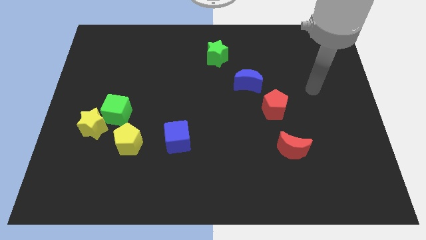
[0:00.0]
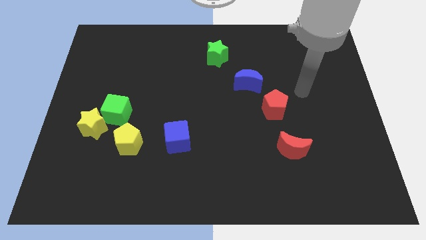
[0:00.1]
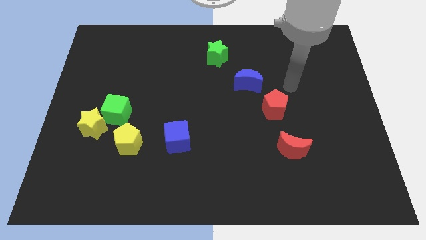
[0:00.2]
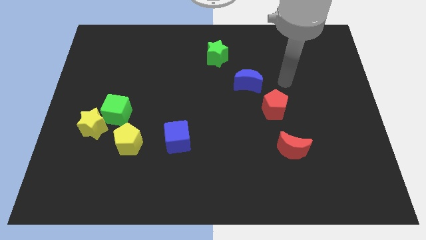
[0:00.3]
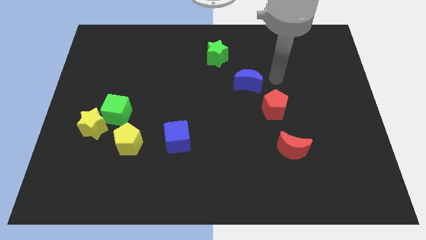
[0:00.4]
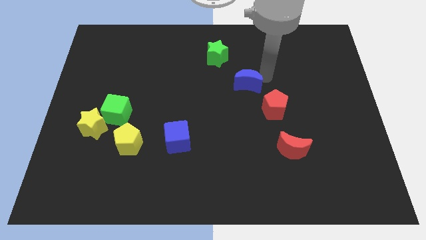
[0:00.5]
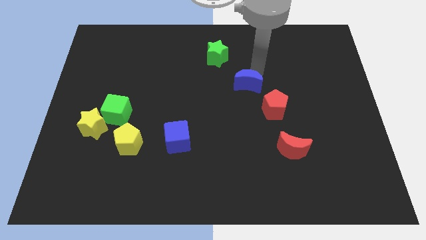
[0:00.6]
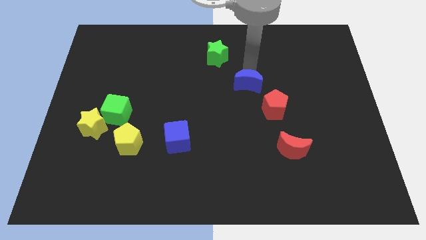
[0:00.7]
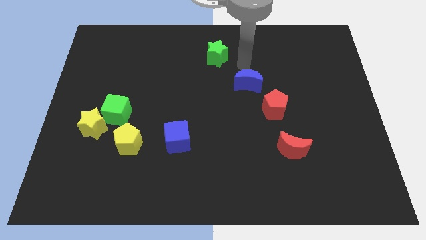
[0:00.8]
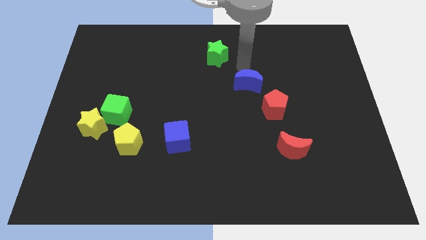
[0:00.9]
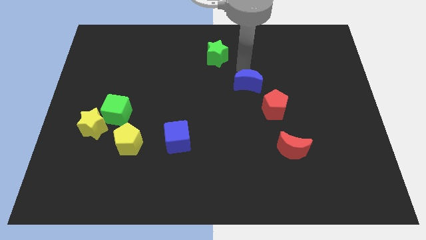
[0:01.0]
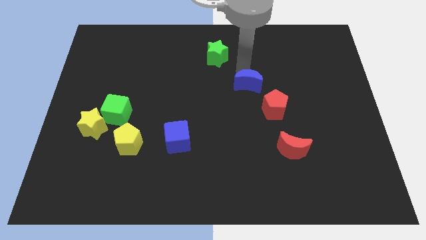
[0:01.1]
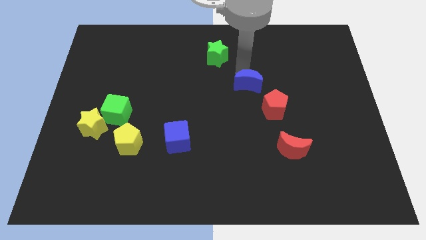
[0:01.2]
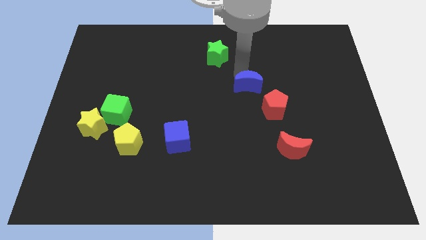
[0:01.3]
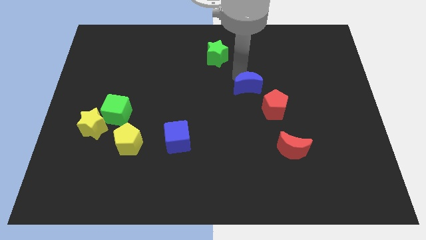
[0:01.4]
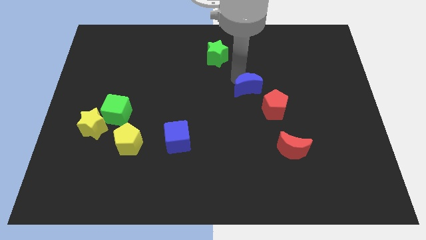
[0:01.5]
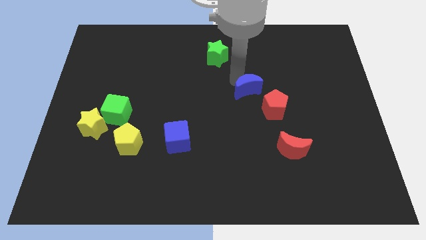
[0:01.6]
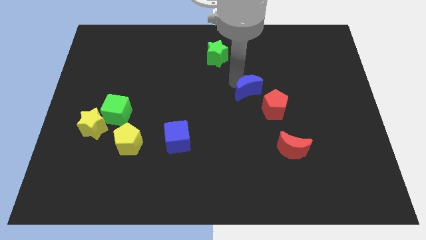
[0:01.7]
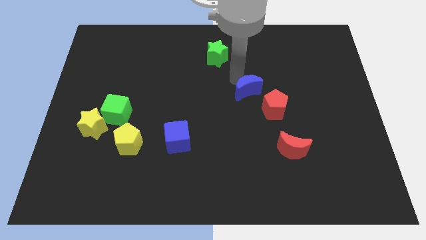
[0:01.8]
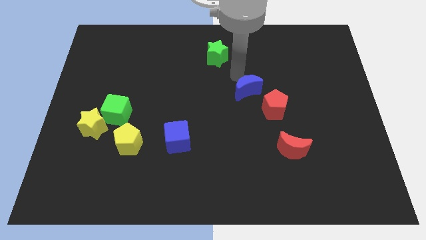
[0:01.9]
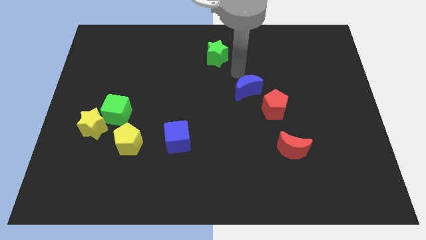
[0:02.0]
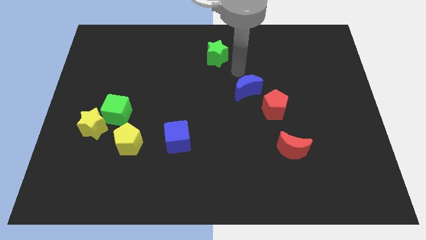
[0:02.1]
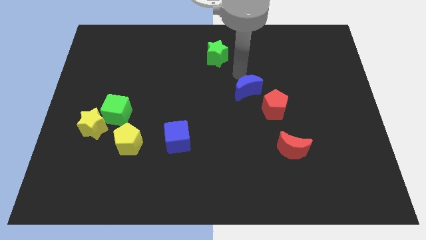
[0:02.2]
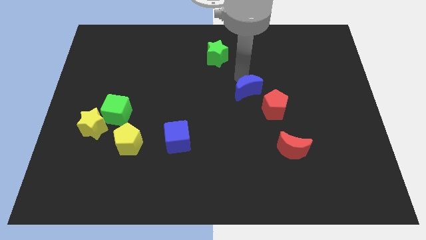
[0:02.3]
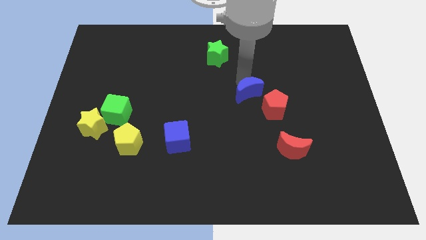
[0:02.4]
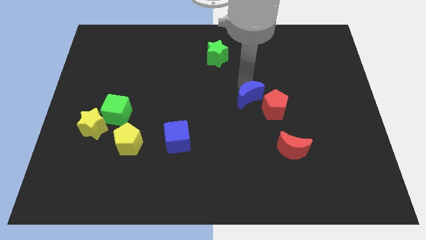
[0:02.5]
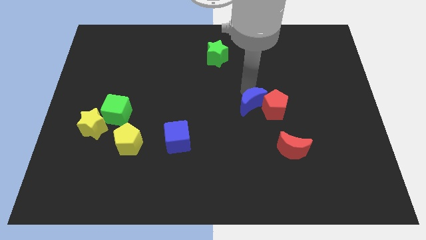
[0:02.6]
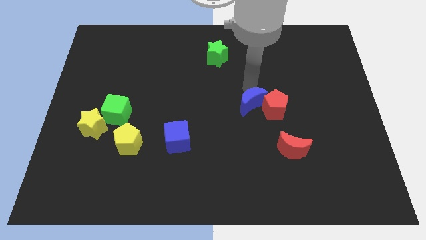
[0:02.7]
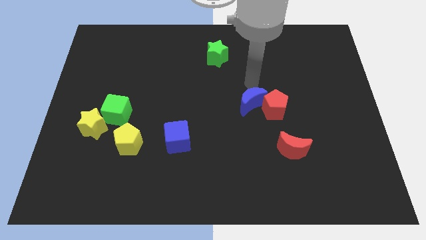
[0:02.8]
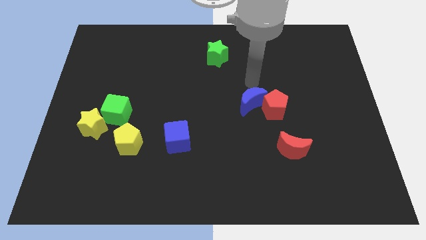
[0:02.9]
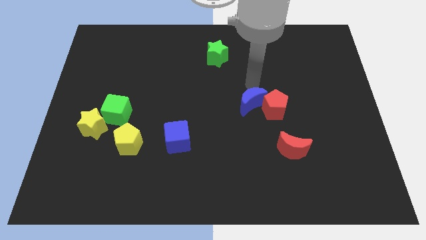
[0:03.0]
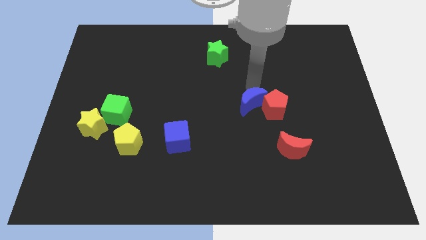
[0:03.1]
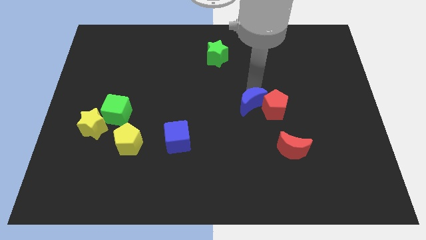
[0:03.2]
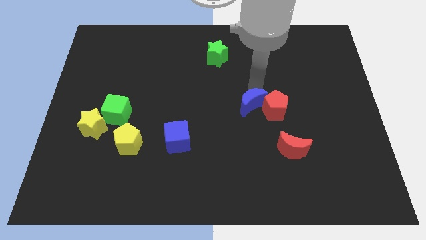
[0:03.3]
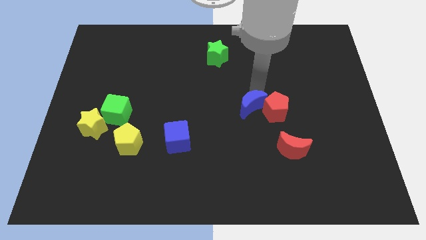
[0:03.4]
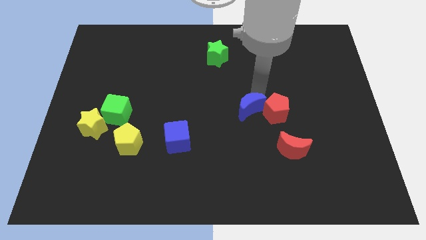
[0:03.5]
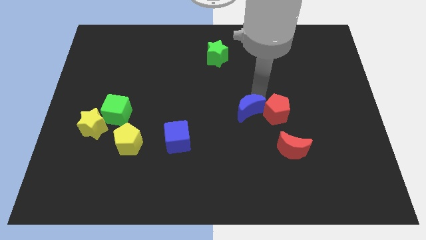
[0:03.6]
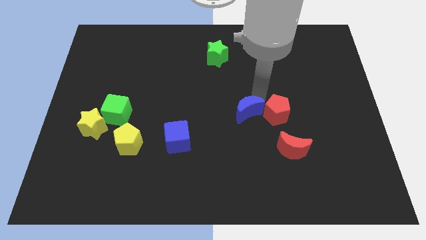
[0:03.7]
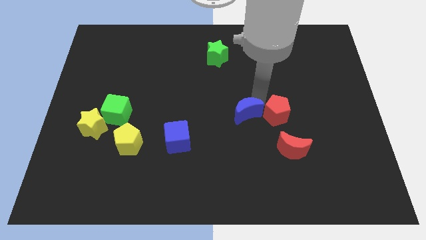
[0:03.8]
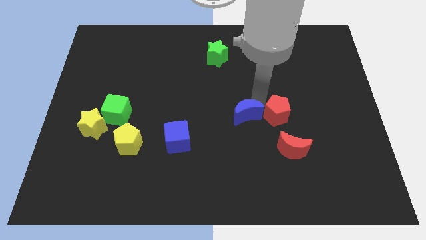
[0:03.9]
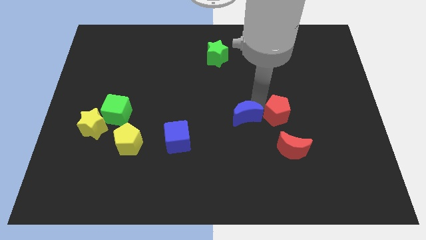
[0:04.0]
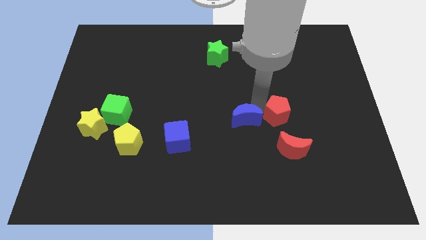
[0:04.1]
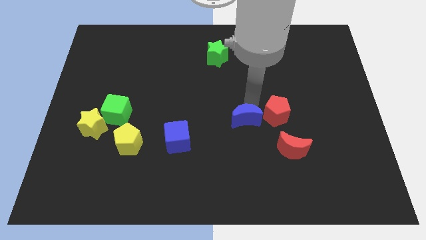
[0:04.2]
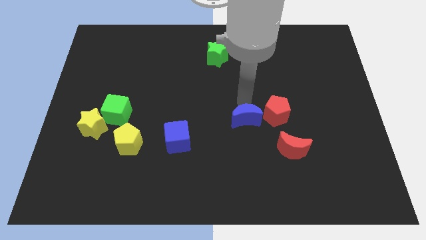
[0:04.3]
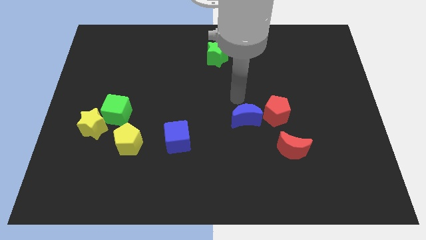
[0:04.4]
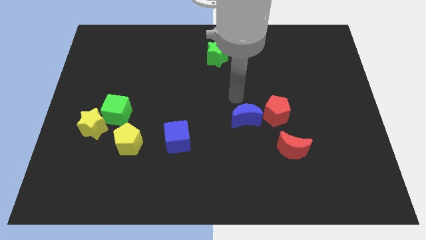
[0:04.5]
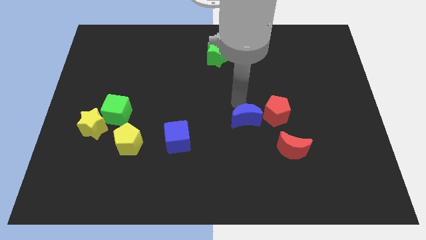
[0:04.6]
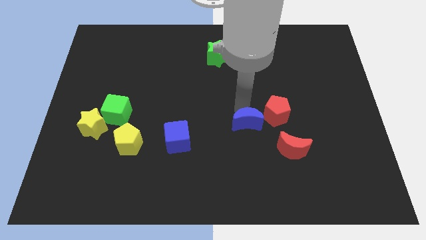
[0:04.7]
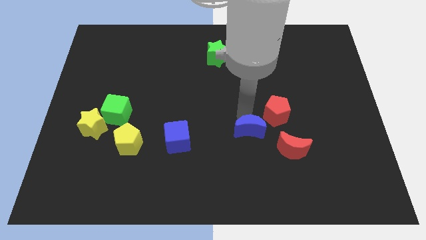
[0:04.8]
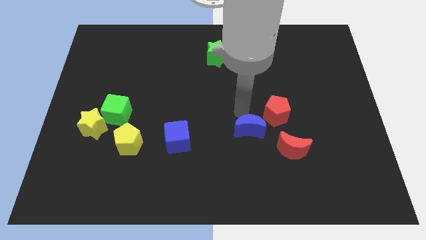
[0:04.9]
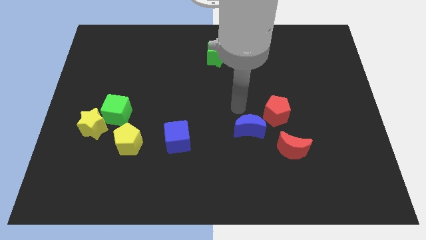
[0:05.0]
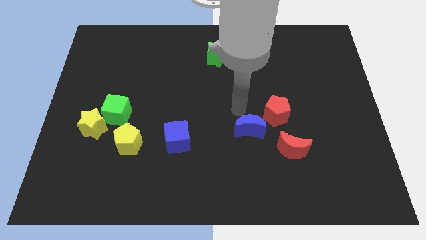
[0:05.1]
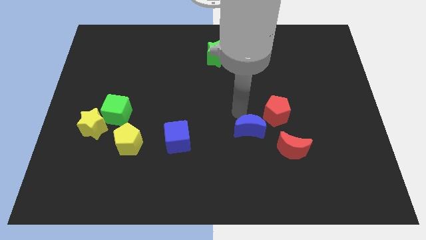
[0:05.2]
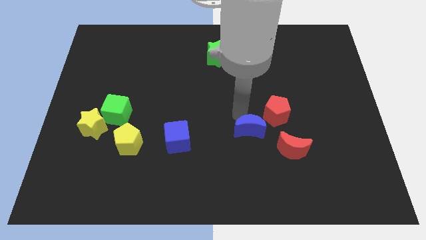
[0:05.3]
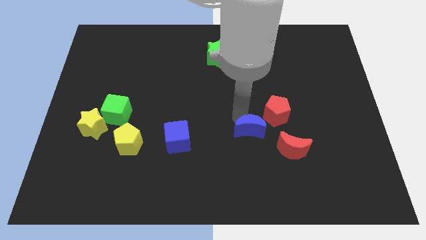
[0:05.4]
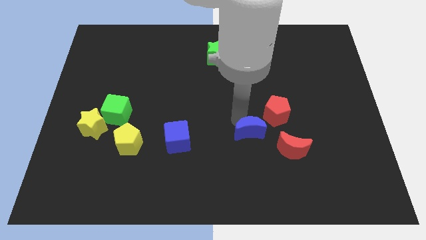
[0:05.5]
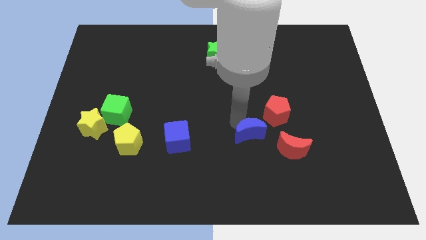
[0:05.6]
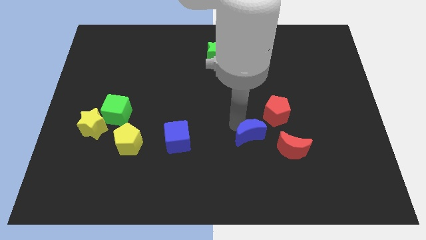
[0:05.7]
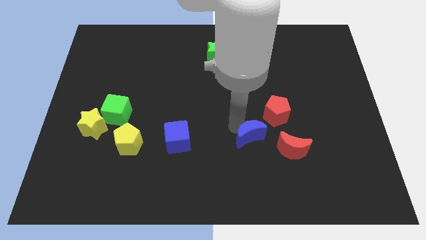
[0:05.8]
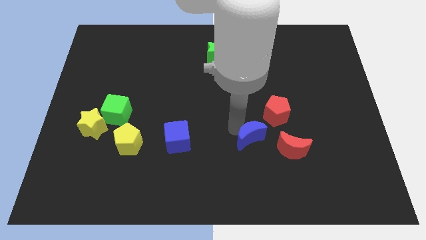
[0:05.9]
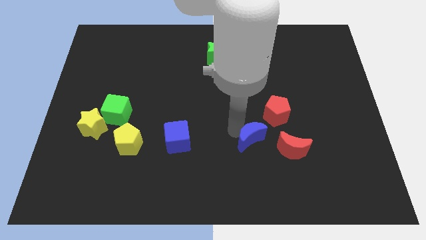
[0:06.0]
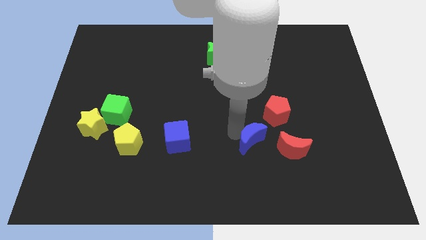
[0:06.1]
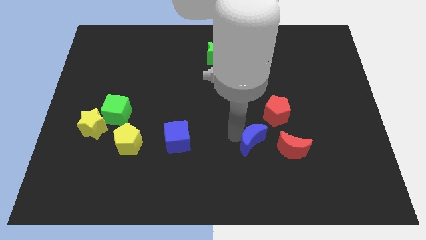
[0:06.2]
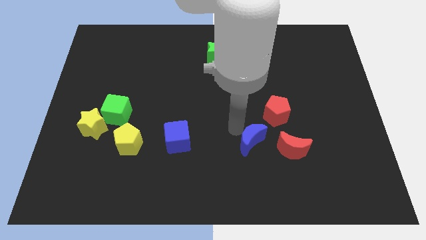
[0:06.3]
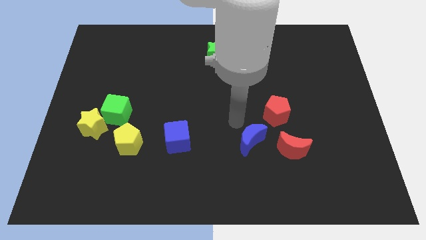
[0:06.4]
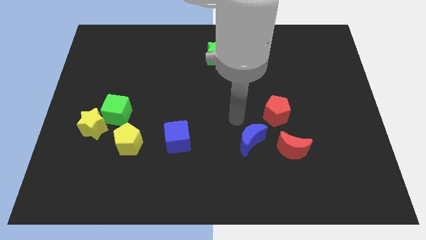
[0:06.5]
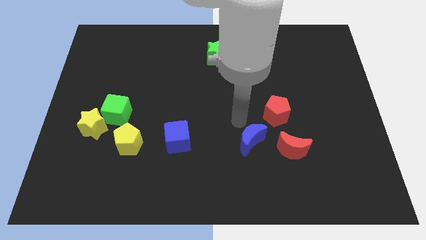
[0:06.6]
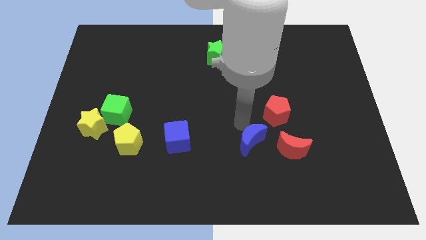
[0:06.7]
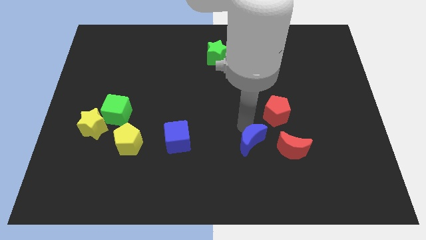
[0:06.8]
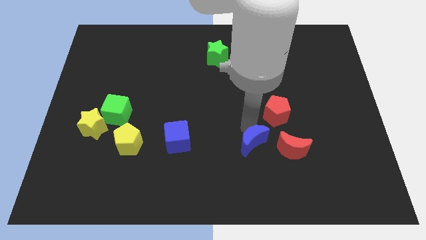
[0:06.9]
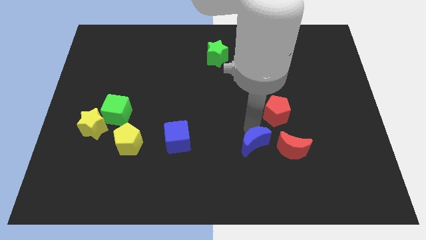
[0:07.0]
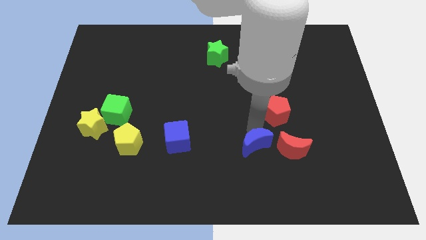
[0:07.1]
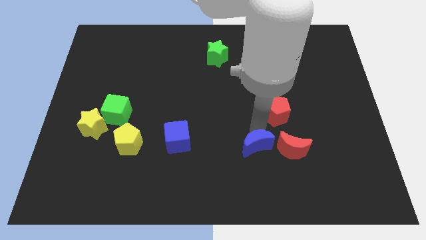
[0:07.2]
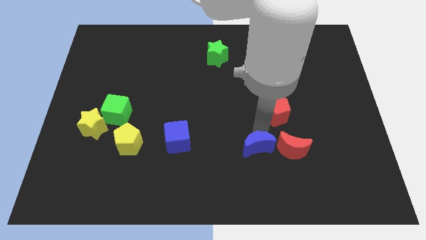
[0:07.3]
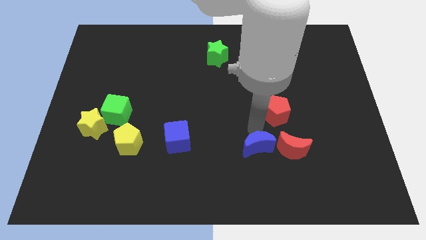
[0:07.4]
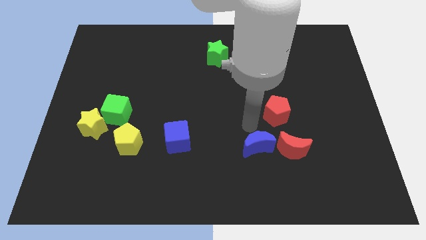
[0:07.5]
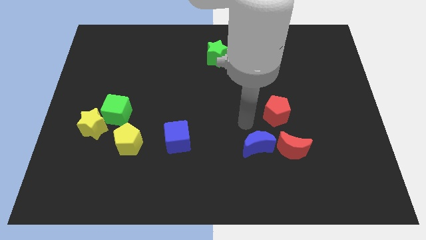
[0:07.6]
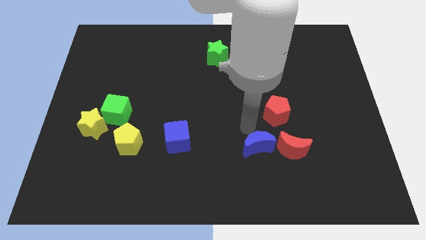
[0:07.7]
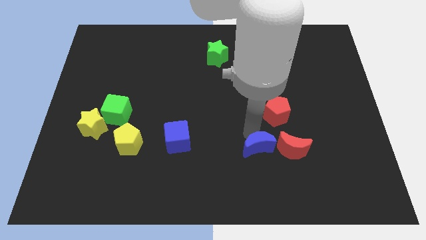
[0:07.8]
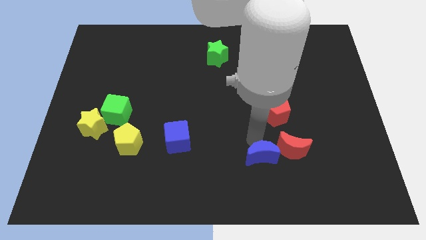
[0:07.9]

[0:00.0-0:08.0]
put the blue moon to the bottom left side of the red moon

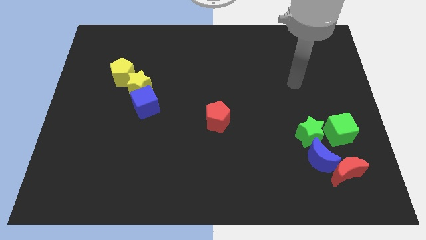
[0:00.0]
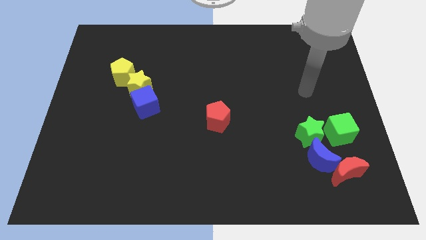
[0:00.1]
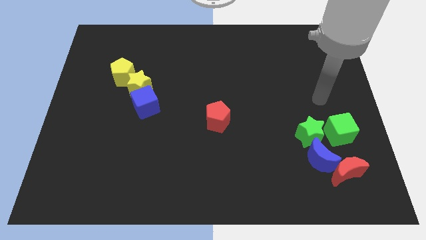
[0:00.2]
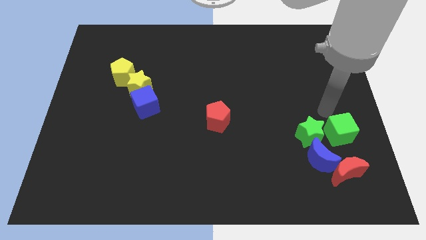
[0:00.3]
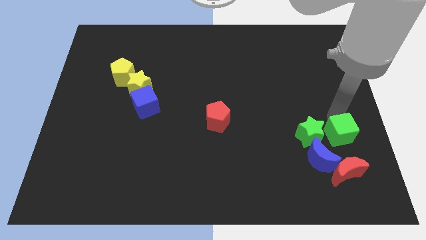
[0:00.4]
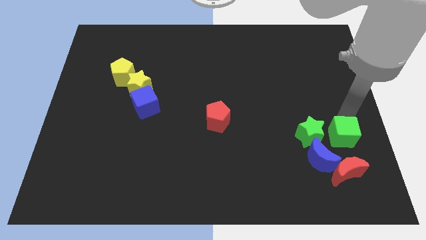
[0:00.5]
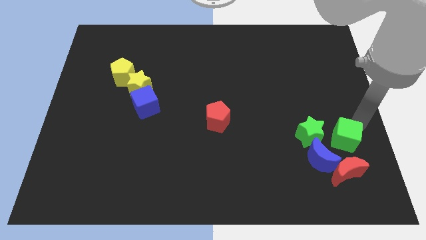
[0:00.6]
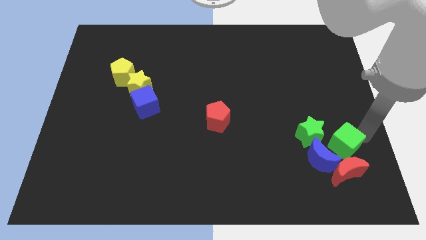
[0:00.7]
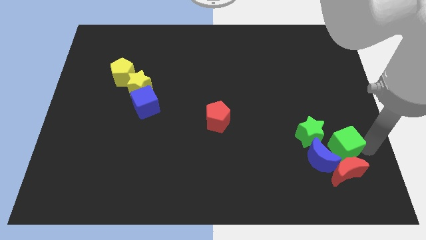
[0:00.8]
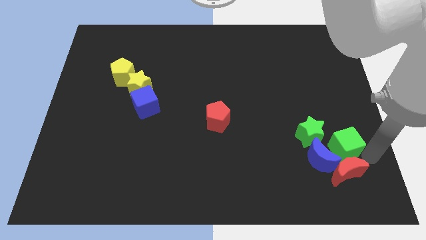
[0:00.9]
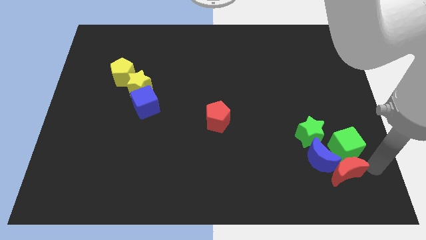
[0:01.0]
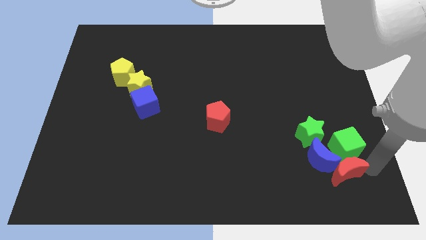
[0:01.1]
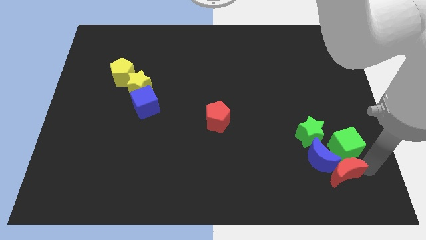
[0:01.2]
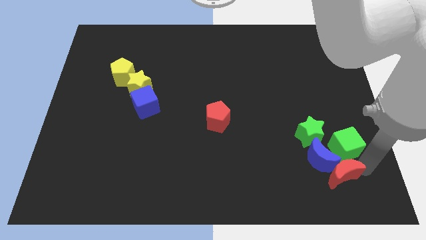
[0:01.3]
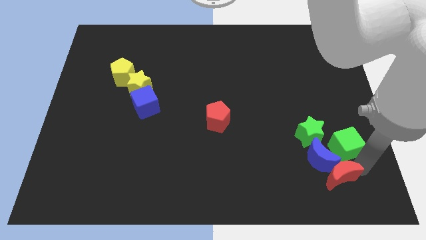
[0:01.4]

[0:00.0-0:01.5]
push the red moon below the green star
